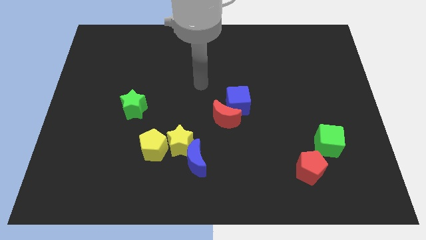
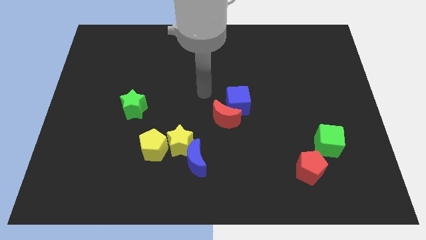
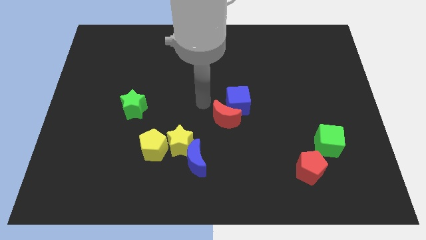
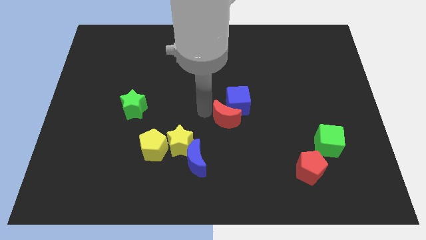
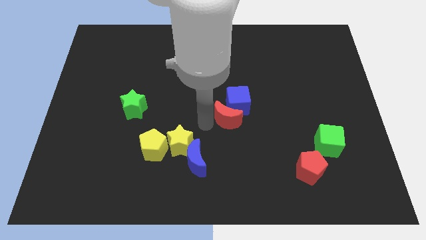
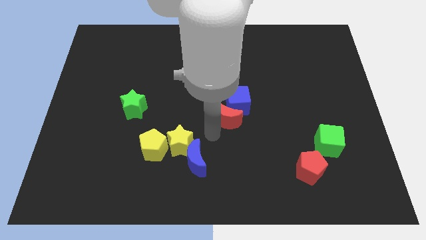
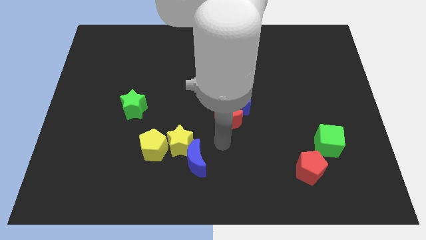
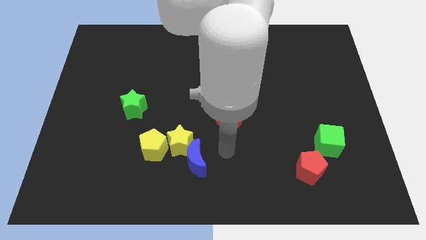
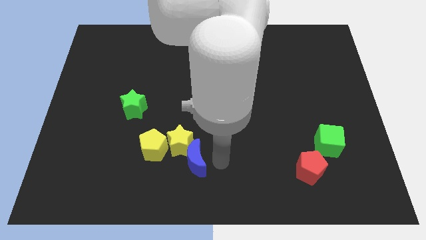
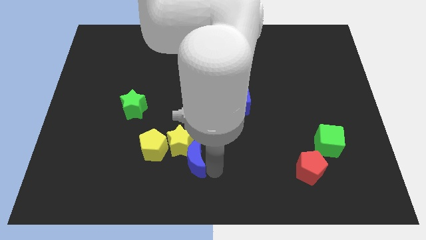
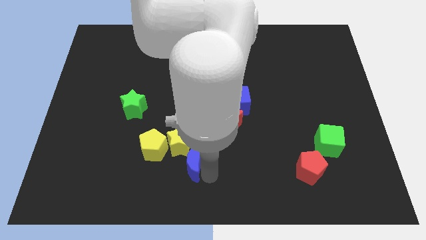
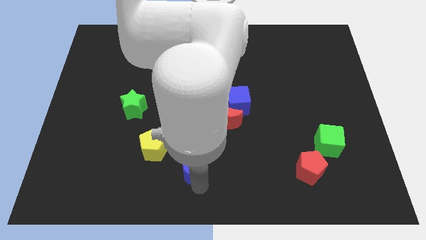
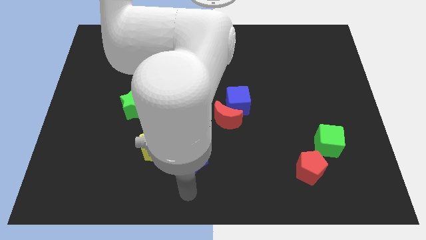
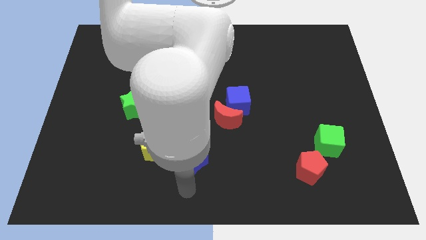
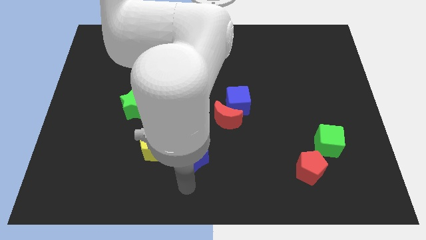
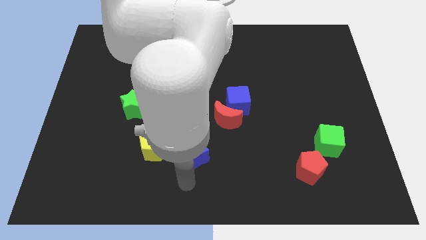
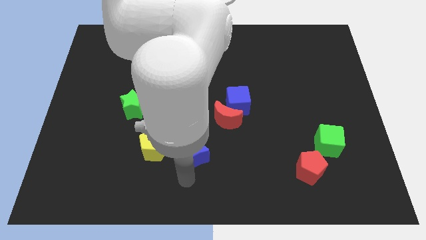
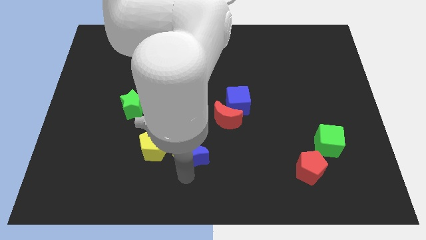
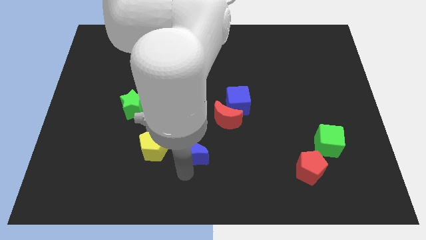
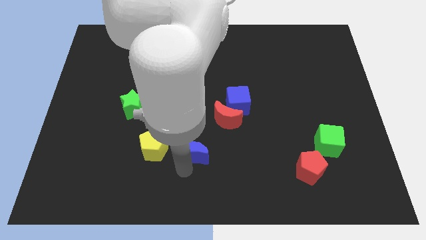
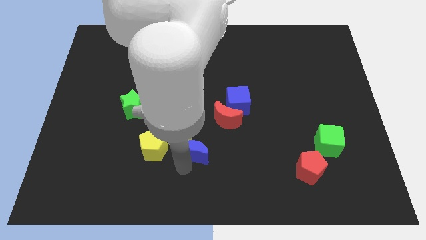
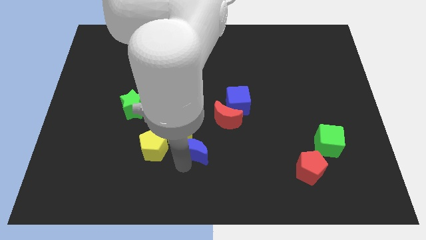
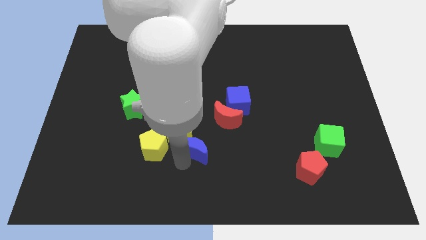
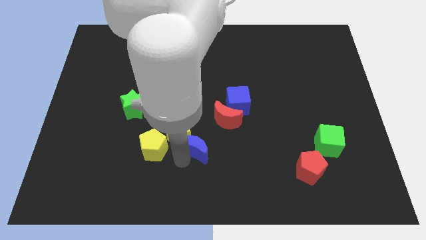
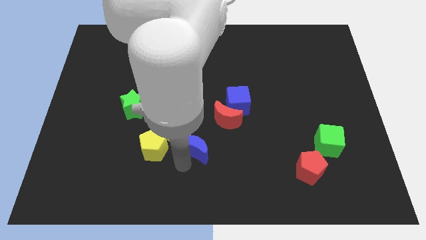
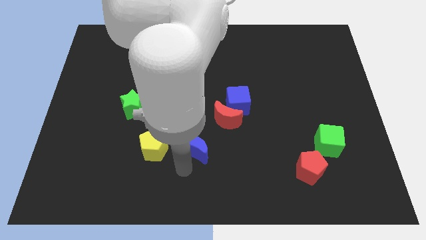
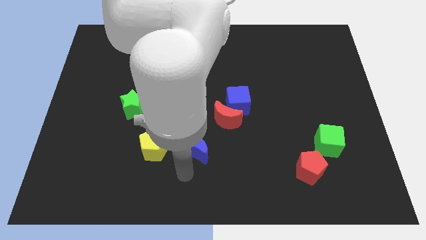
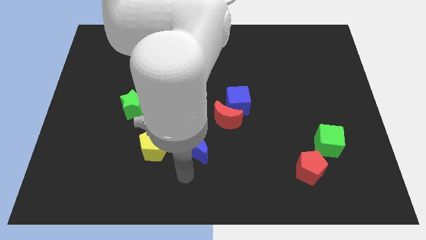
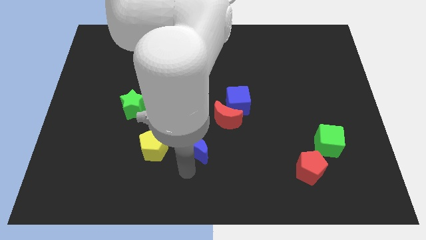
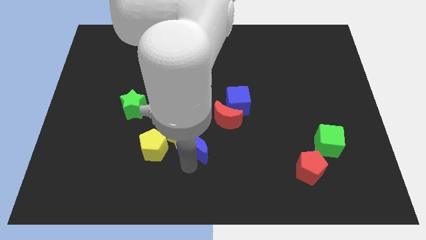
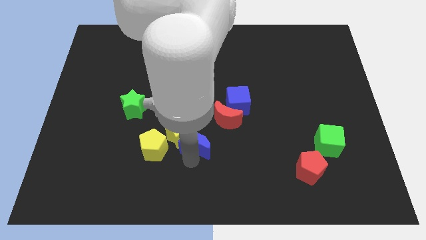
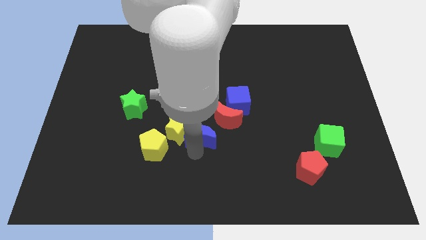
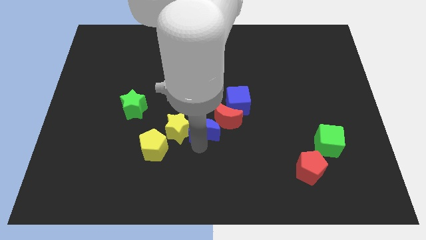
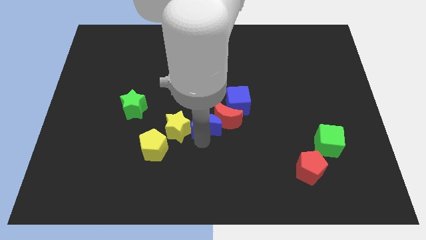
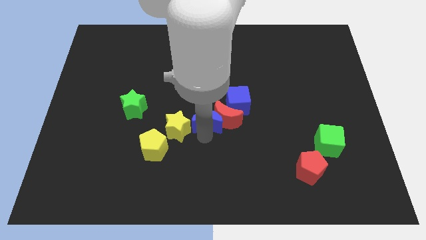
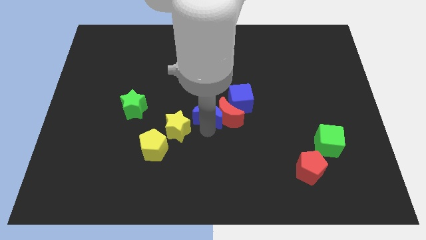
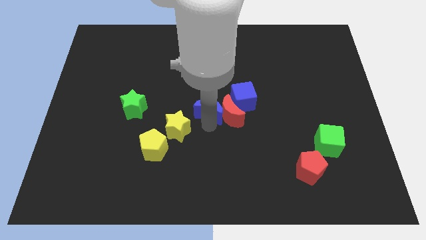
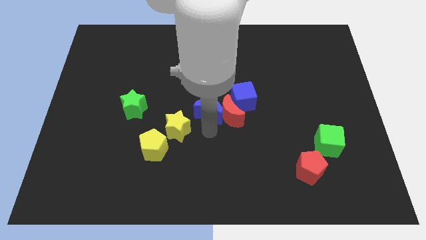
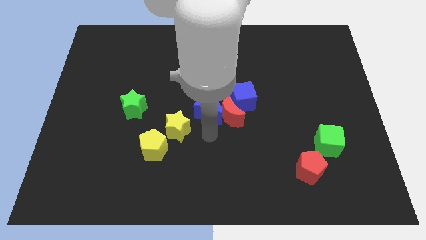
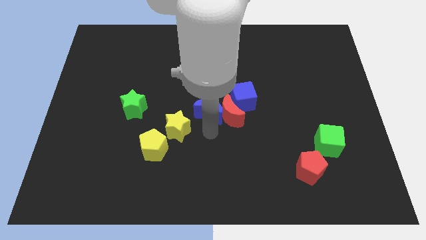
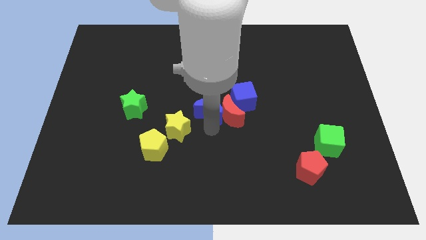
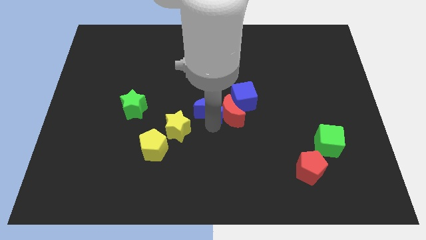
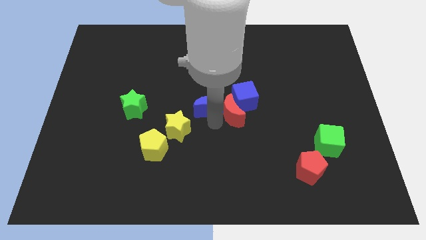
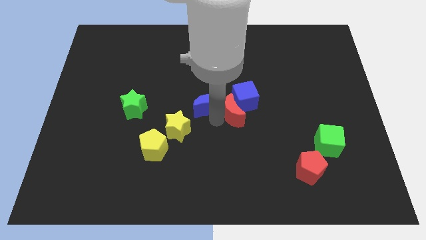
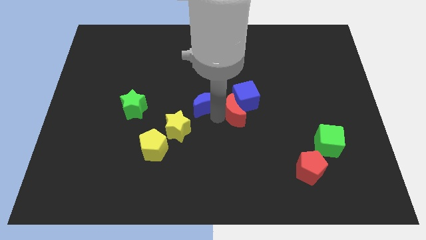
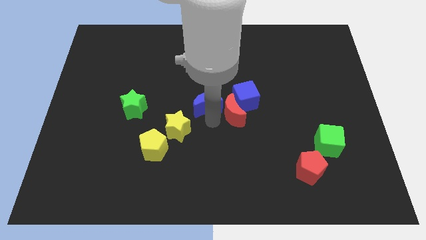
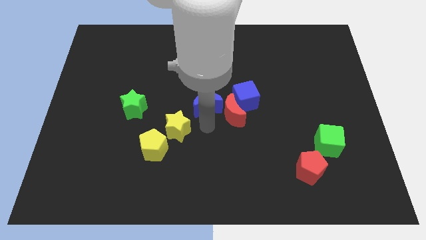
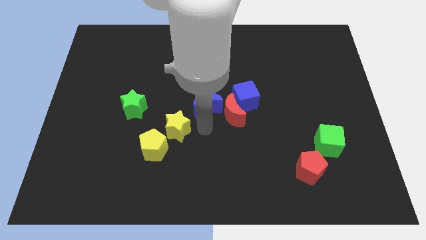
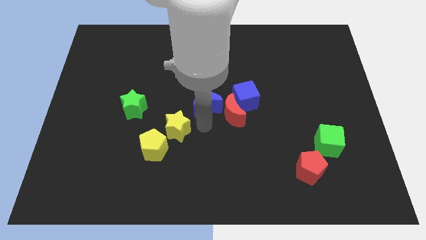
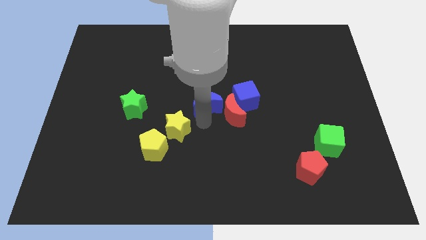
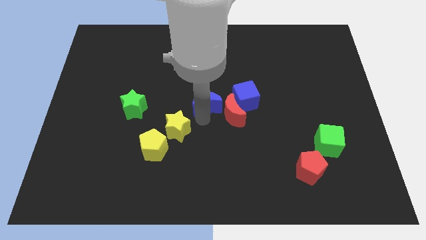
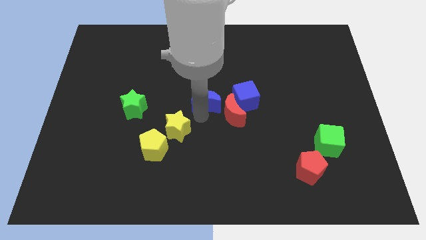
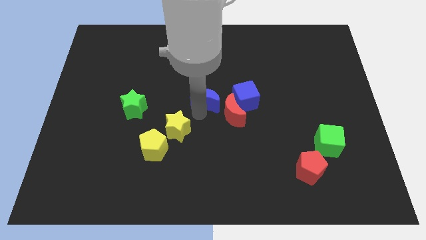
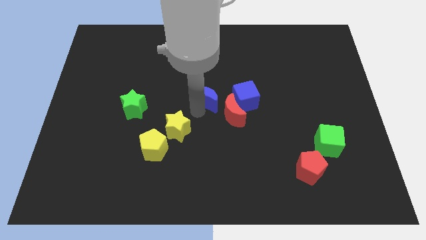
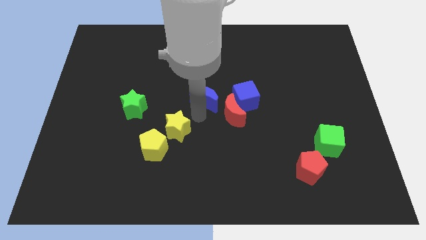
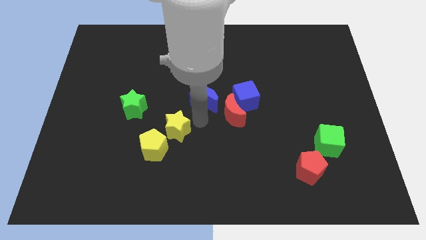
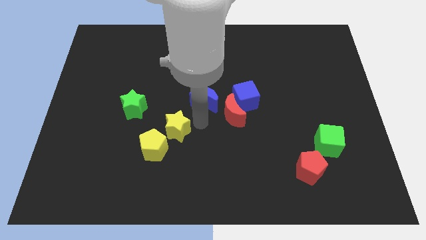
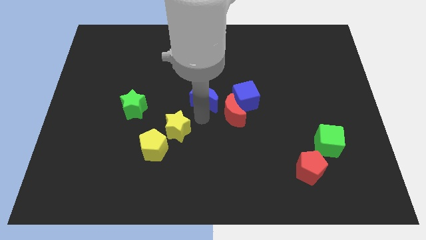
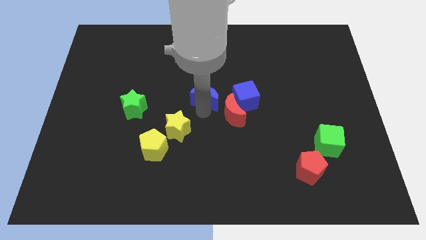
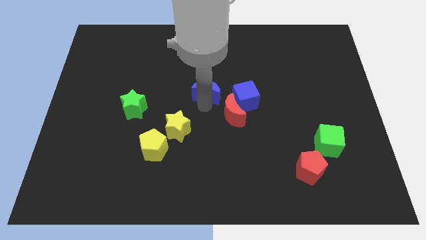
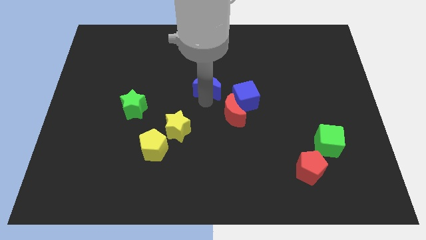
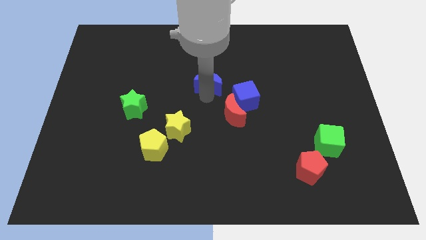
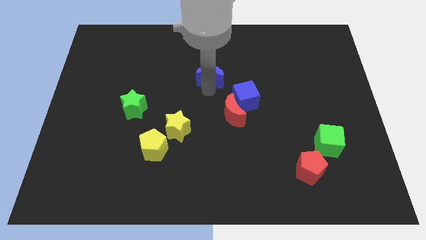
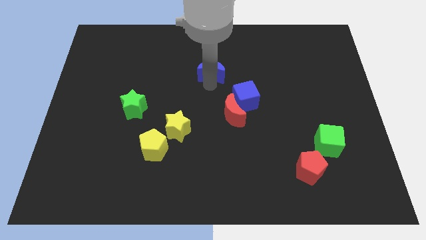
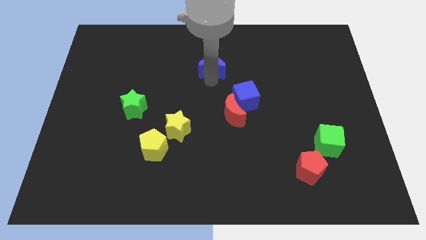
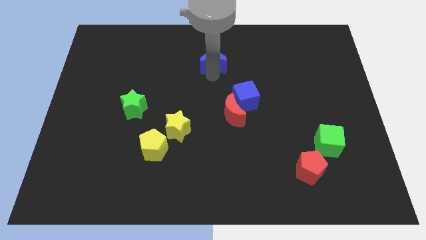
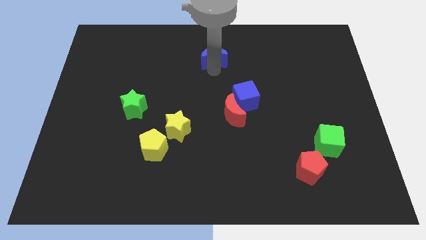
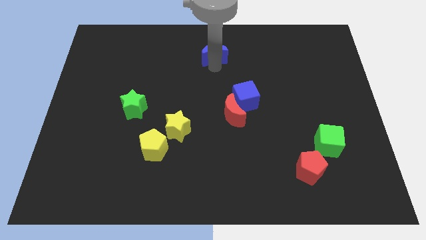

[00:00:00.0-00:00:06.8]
push the blue moon to the top
